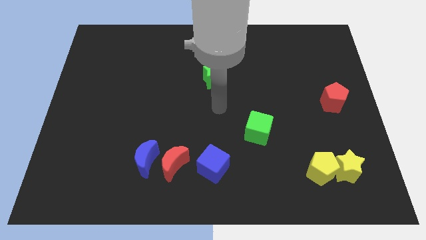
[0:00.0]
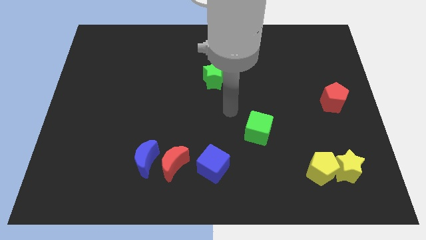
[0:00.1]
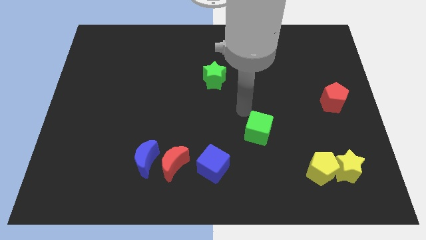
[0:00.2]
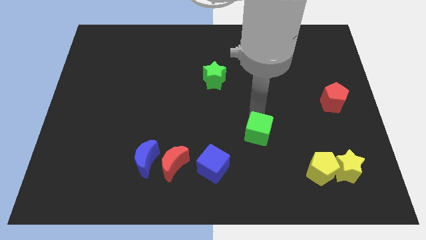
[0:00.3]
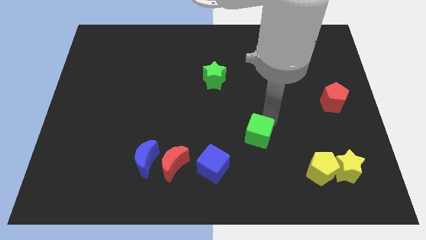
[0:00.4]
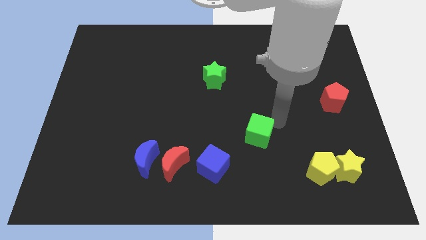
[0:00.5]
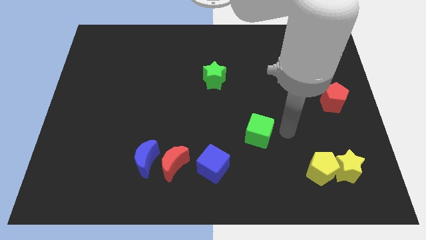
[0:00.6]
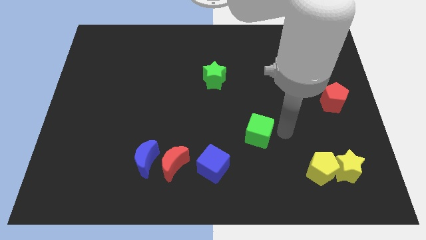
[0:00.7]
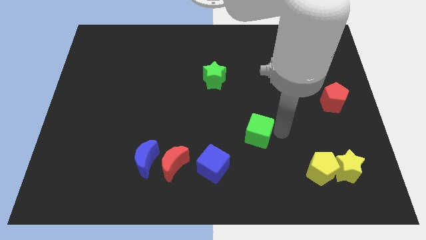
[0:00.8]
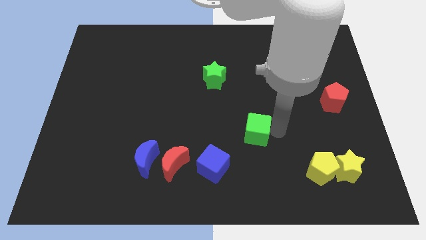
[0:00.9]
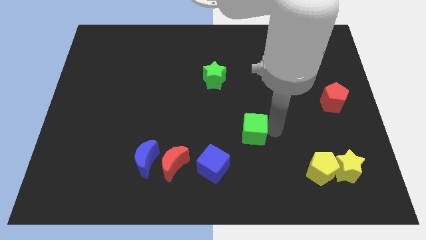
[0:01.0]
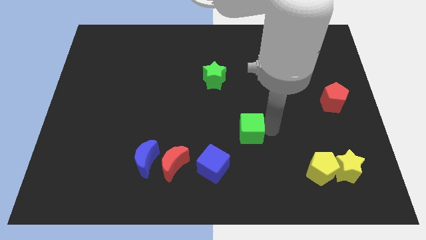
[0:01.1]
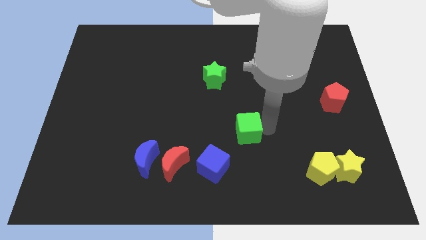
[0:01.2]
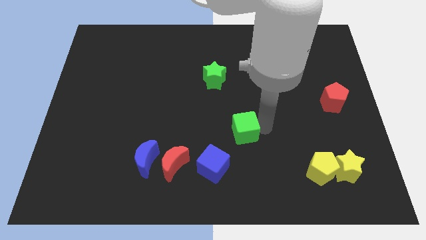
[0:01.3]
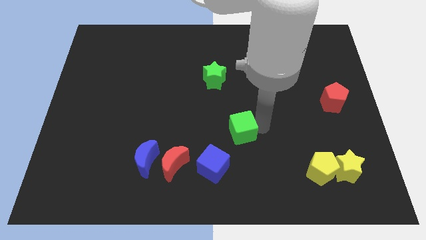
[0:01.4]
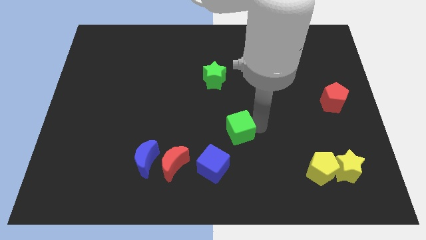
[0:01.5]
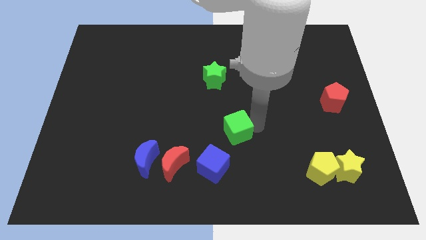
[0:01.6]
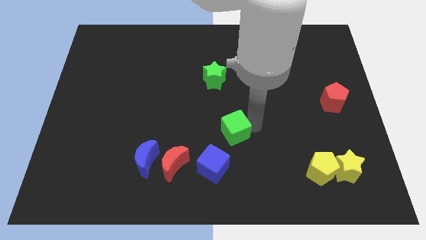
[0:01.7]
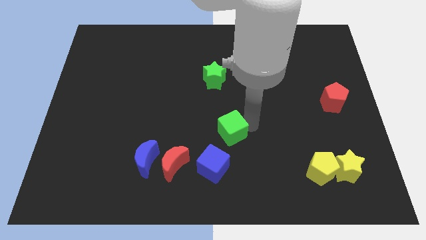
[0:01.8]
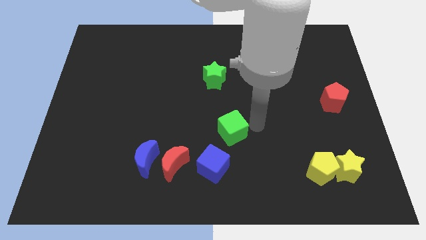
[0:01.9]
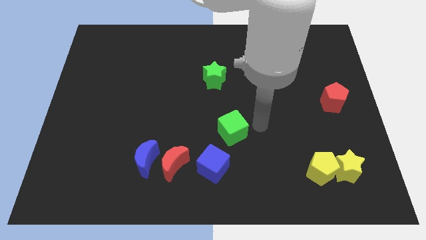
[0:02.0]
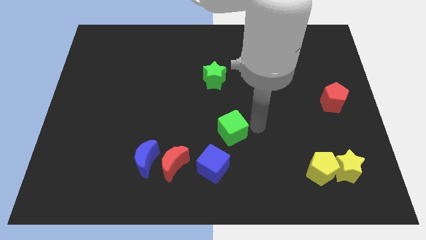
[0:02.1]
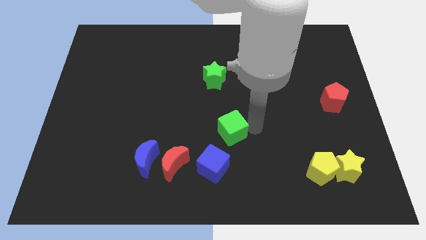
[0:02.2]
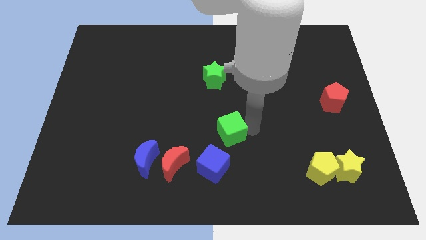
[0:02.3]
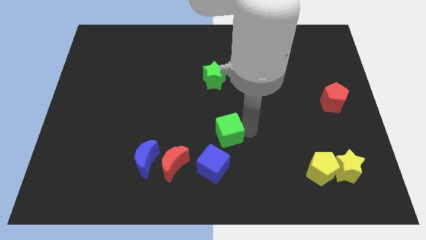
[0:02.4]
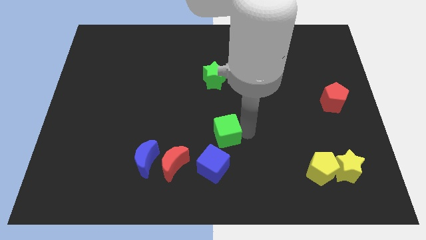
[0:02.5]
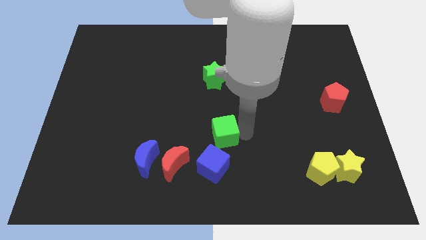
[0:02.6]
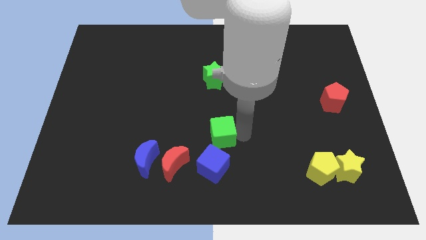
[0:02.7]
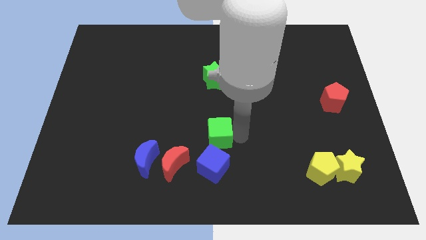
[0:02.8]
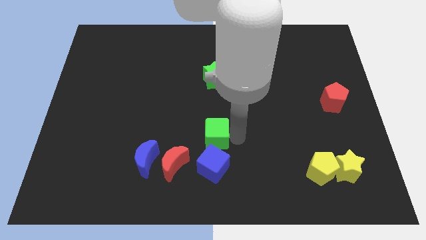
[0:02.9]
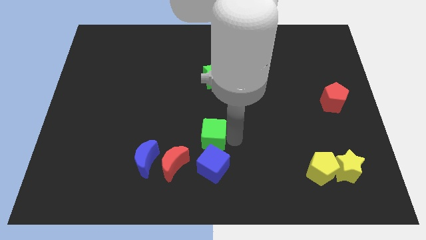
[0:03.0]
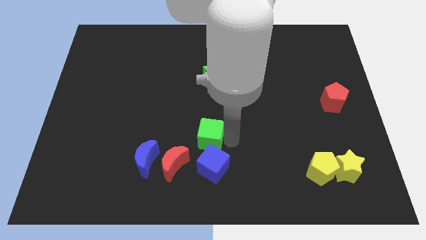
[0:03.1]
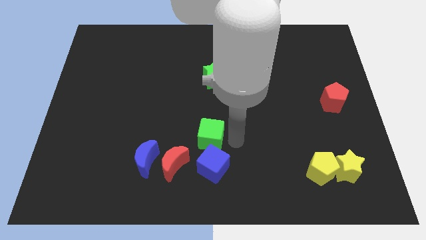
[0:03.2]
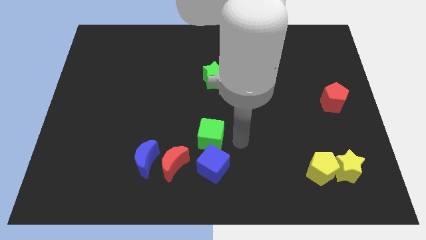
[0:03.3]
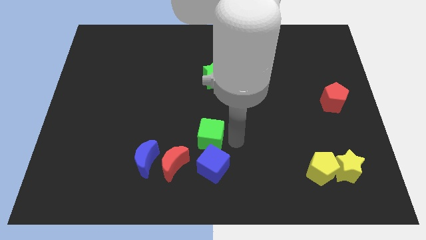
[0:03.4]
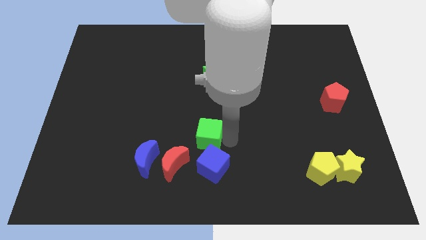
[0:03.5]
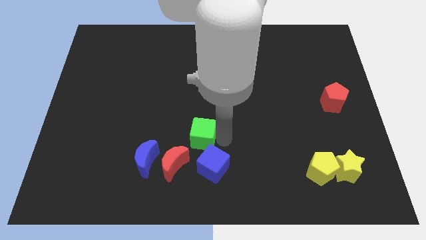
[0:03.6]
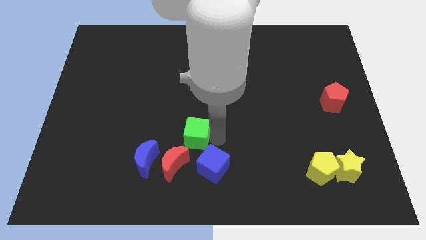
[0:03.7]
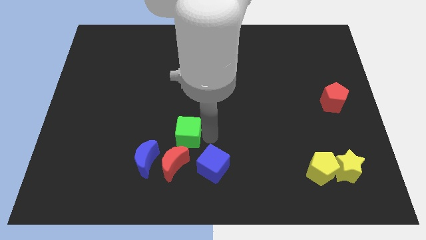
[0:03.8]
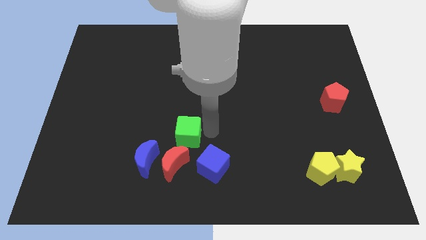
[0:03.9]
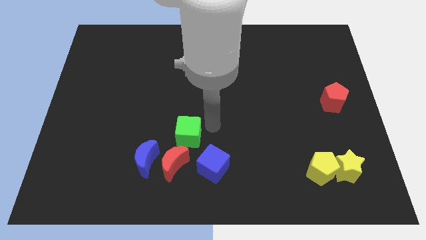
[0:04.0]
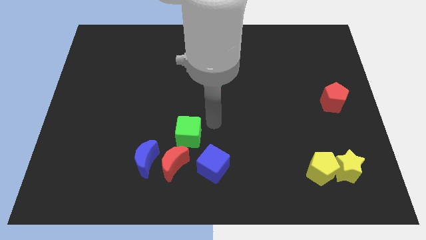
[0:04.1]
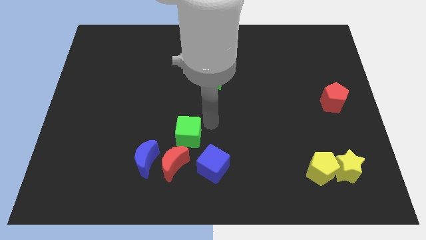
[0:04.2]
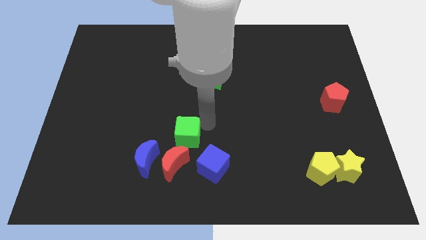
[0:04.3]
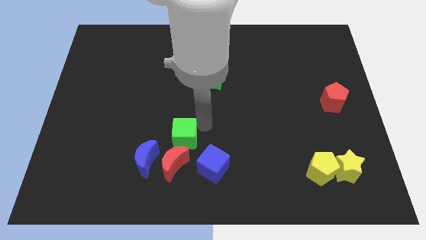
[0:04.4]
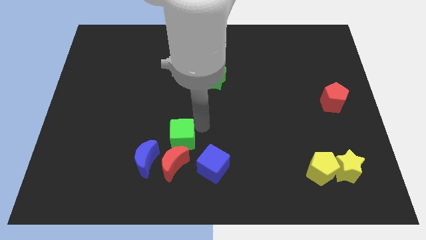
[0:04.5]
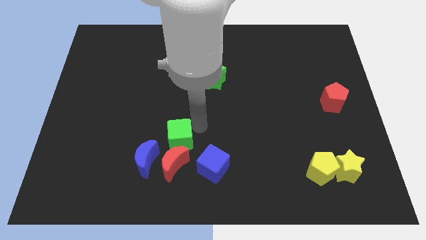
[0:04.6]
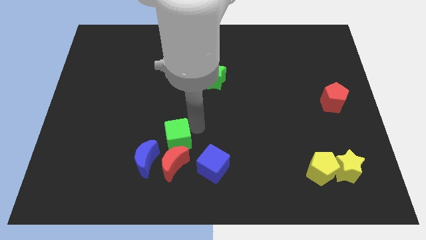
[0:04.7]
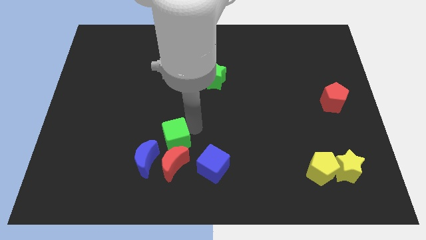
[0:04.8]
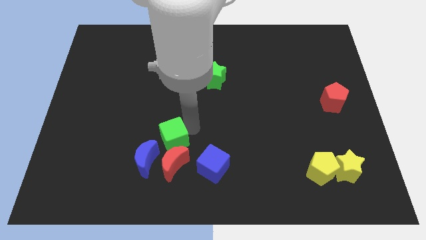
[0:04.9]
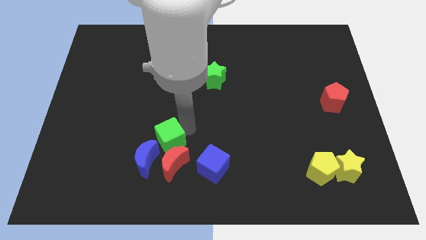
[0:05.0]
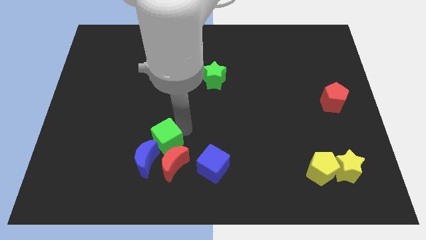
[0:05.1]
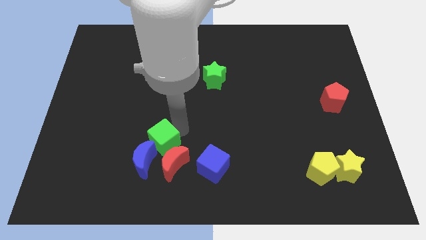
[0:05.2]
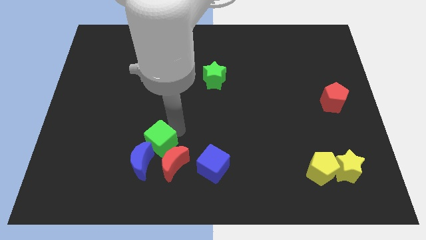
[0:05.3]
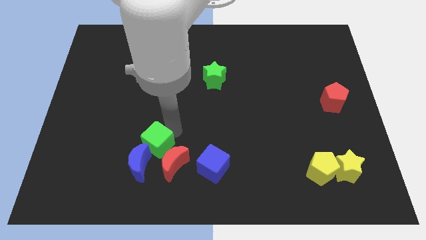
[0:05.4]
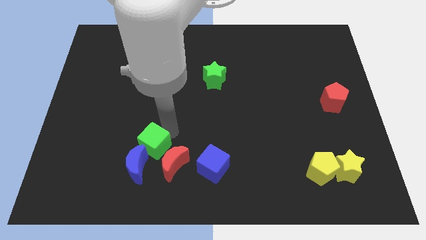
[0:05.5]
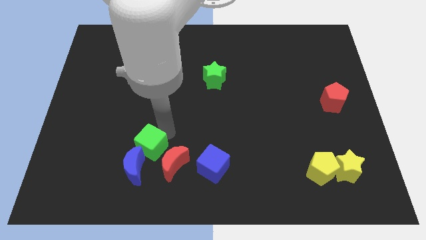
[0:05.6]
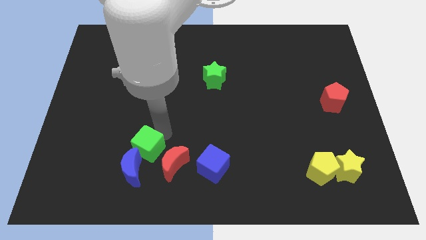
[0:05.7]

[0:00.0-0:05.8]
slide the green cube to the blue moon

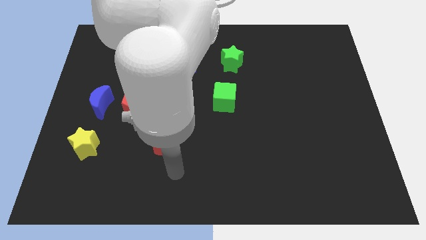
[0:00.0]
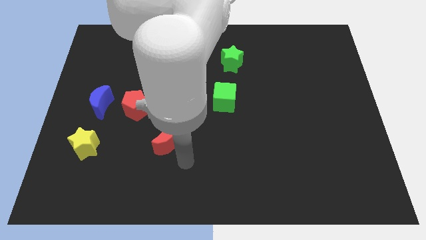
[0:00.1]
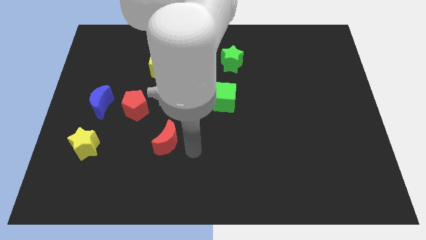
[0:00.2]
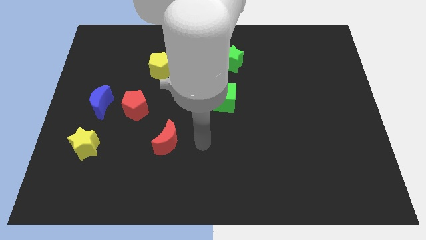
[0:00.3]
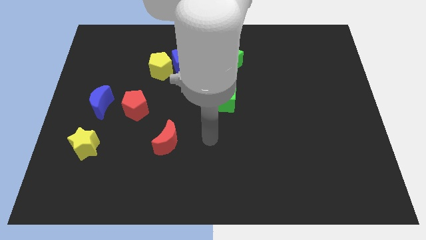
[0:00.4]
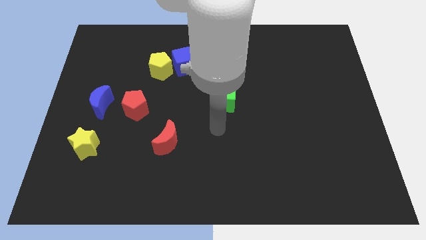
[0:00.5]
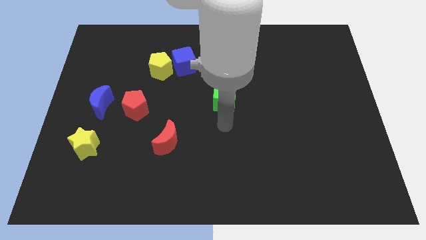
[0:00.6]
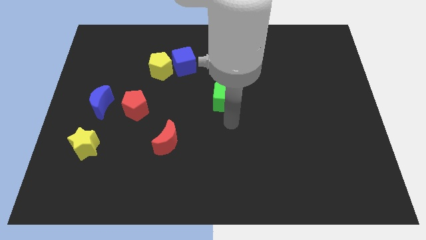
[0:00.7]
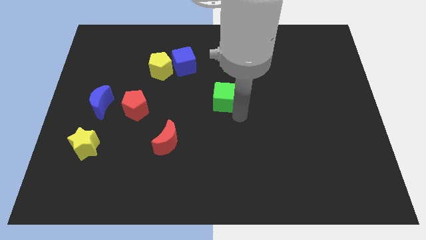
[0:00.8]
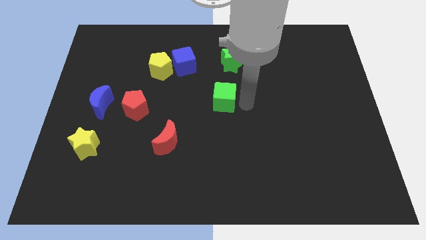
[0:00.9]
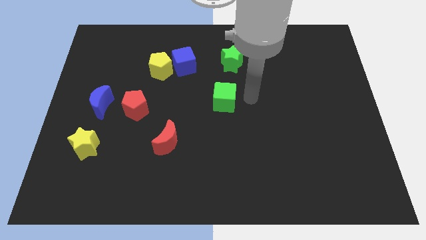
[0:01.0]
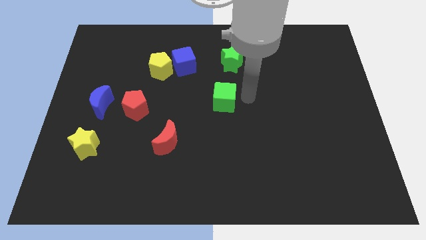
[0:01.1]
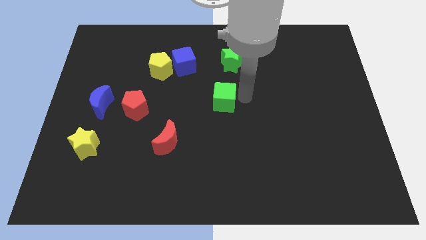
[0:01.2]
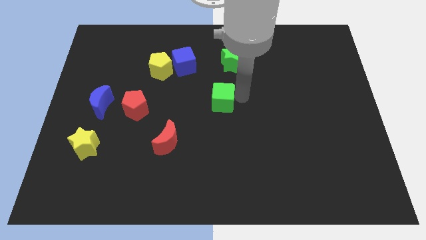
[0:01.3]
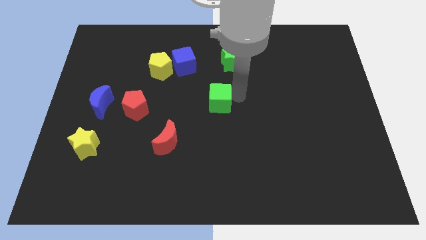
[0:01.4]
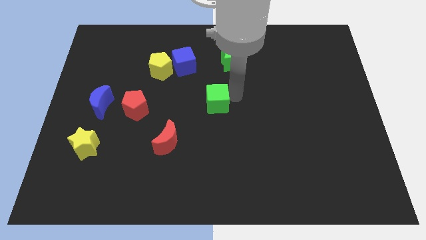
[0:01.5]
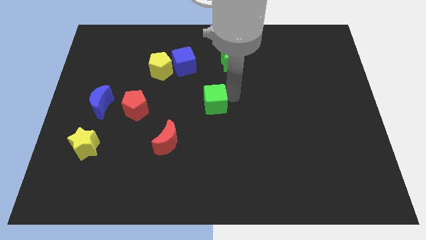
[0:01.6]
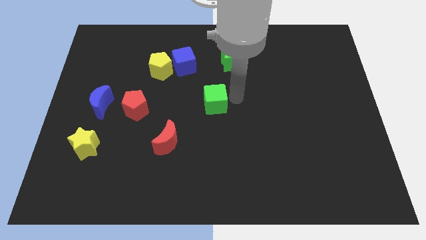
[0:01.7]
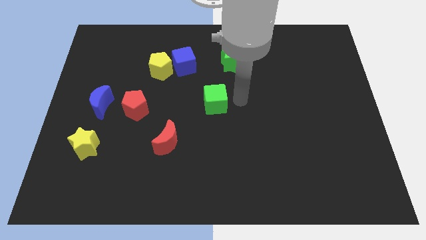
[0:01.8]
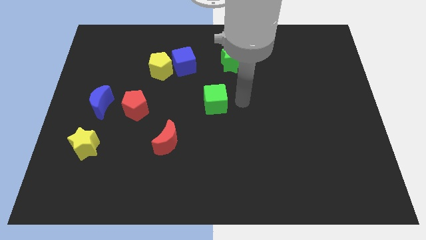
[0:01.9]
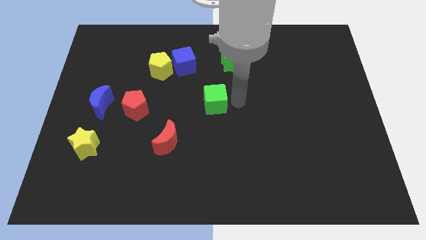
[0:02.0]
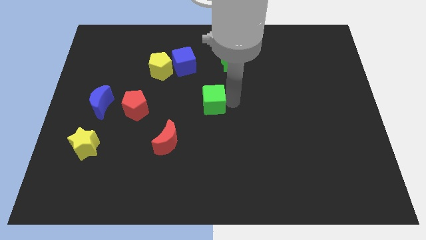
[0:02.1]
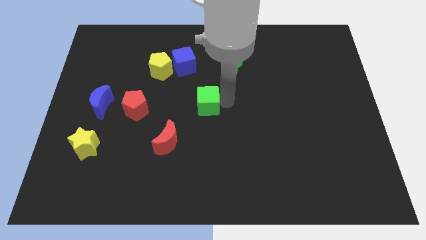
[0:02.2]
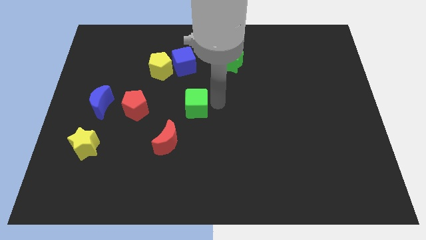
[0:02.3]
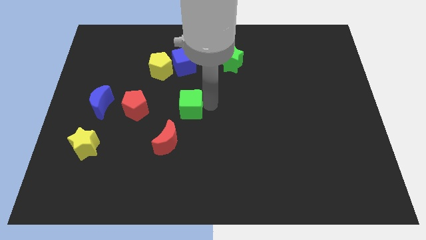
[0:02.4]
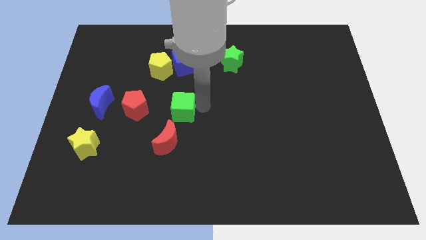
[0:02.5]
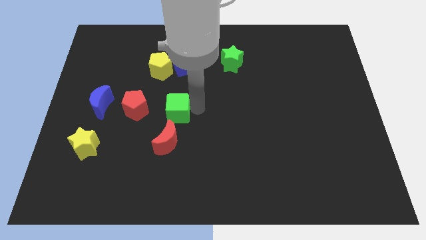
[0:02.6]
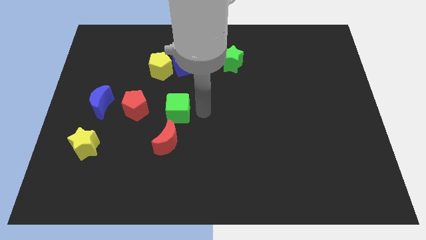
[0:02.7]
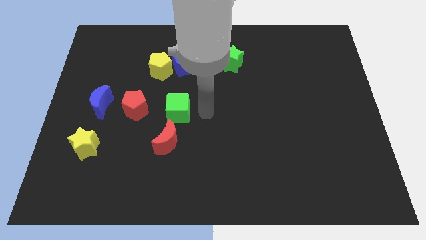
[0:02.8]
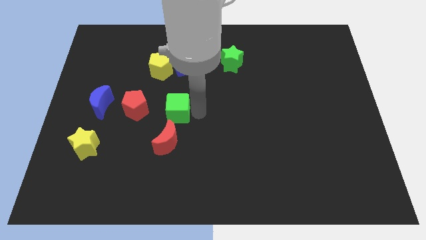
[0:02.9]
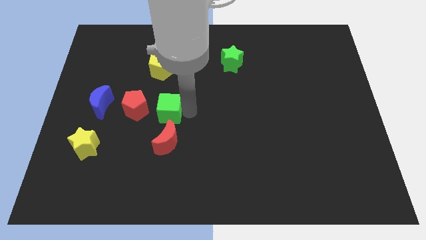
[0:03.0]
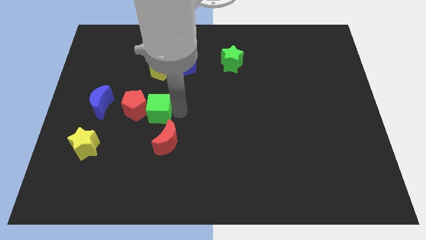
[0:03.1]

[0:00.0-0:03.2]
push the green cube to the red pentagon
